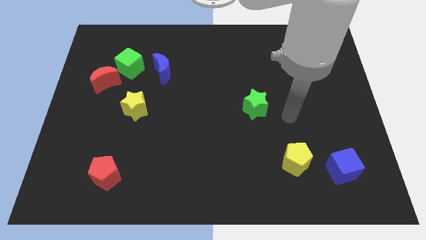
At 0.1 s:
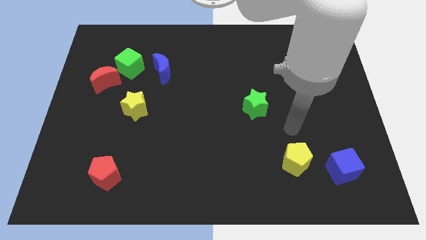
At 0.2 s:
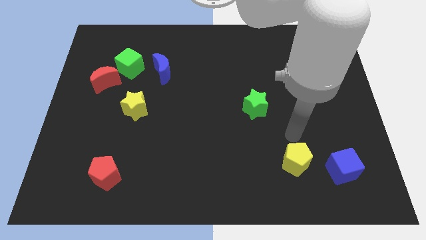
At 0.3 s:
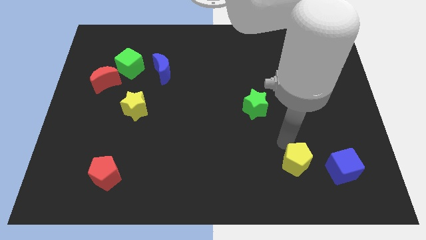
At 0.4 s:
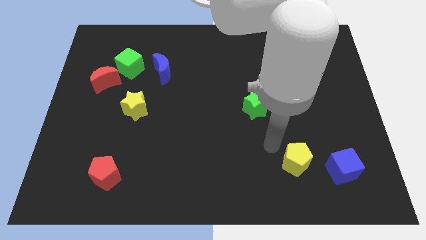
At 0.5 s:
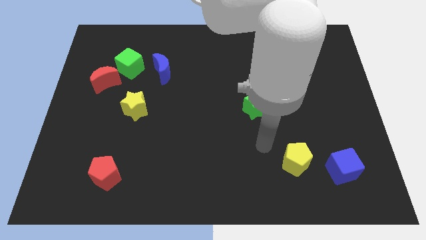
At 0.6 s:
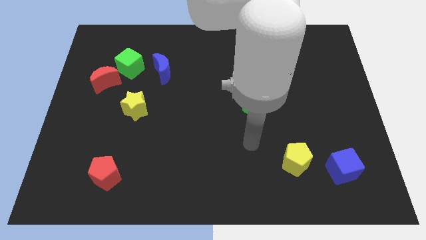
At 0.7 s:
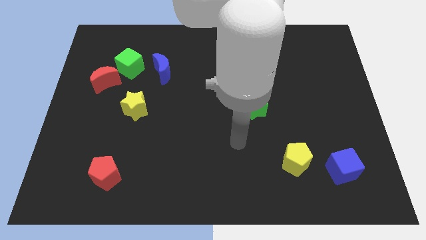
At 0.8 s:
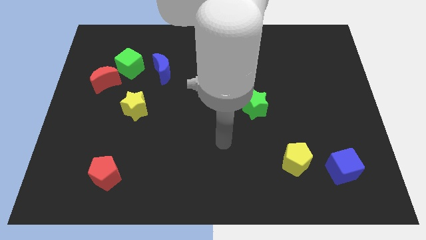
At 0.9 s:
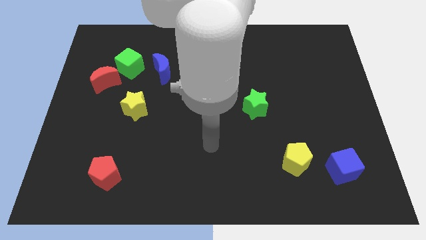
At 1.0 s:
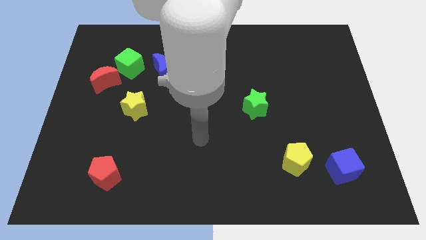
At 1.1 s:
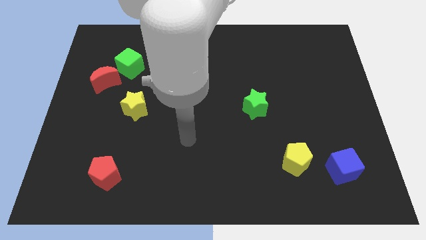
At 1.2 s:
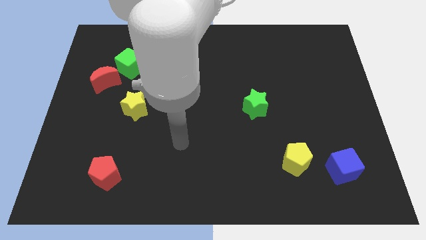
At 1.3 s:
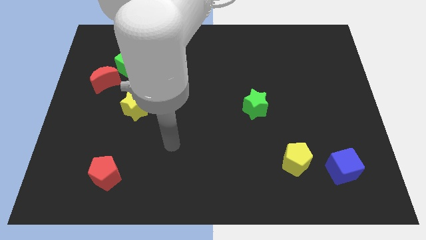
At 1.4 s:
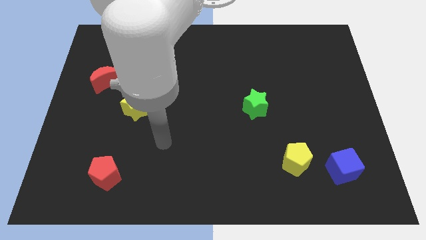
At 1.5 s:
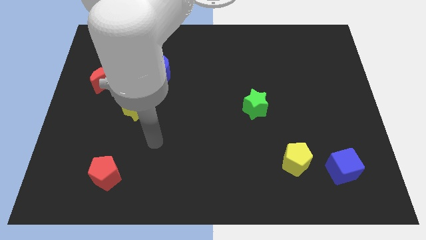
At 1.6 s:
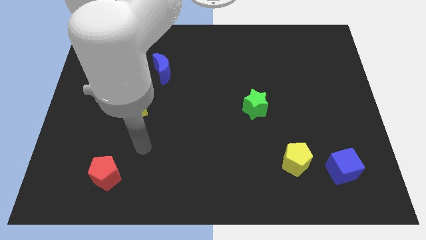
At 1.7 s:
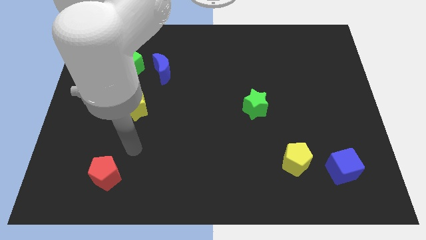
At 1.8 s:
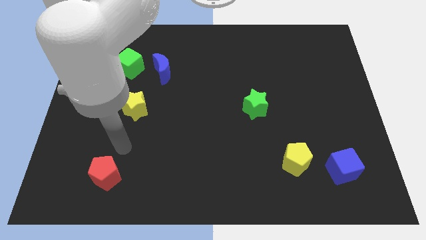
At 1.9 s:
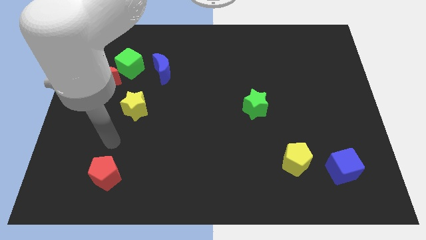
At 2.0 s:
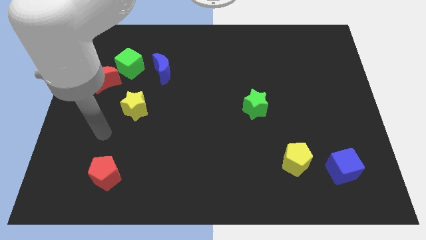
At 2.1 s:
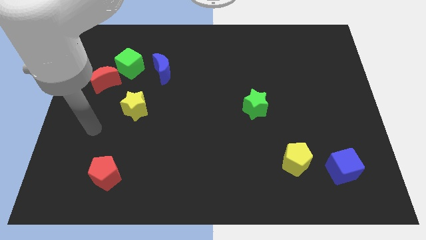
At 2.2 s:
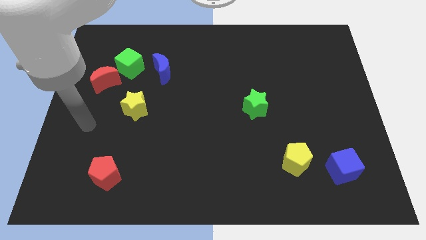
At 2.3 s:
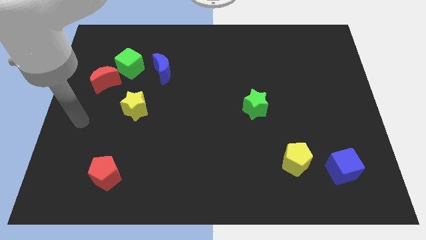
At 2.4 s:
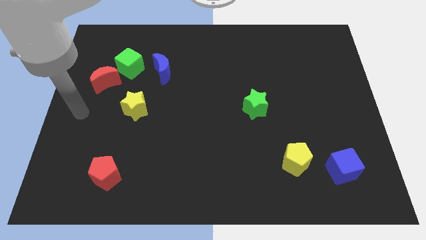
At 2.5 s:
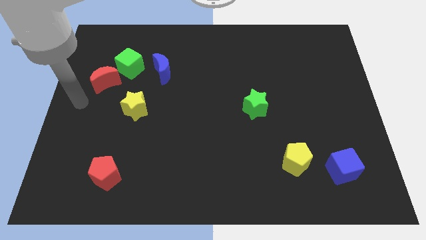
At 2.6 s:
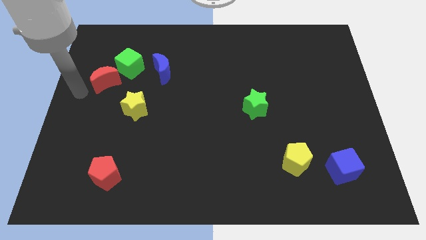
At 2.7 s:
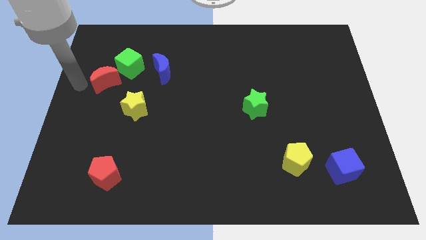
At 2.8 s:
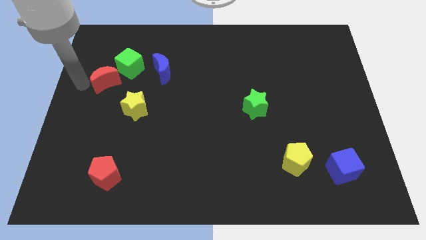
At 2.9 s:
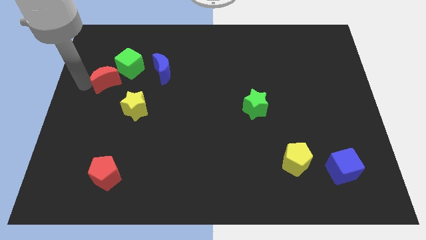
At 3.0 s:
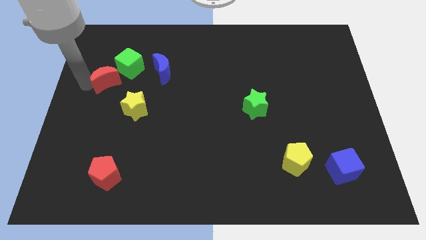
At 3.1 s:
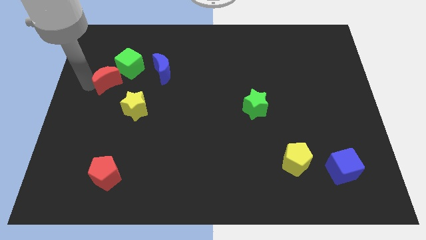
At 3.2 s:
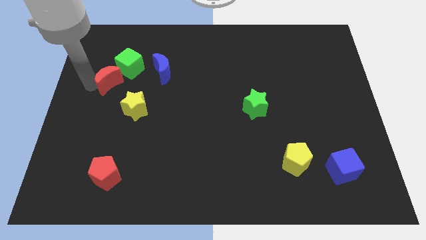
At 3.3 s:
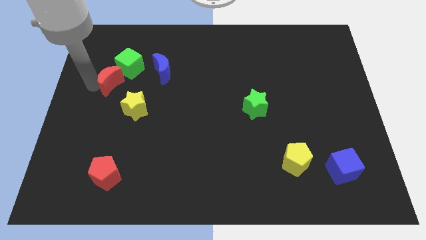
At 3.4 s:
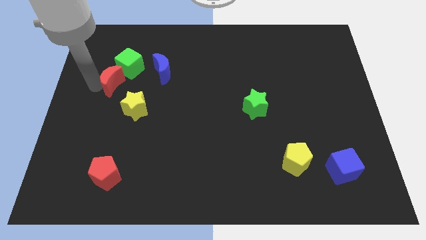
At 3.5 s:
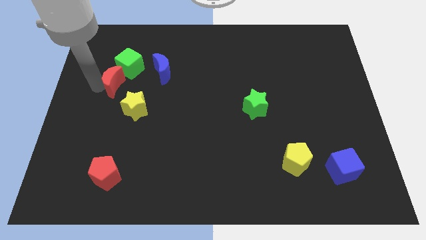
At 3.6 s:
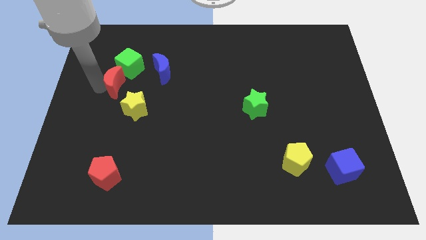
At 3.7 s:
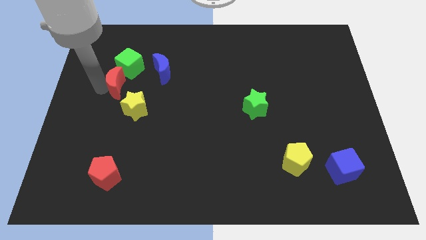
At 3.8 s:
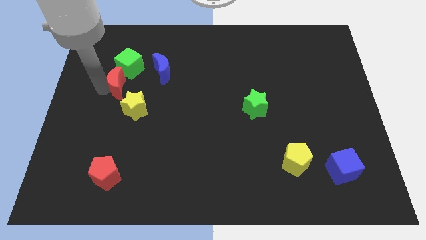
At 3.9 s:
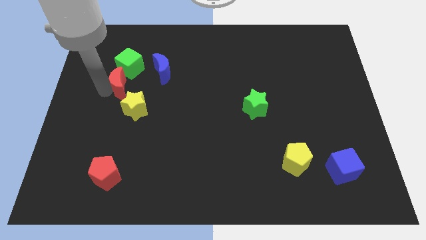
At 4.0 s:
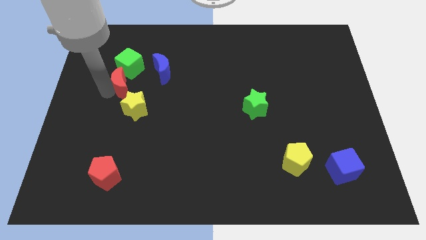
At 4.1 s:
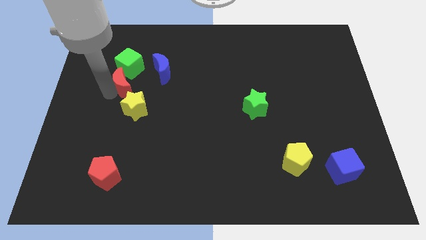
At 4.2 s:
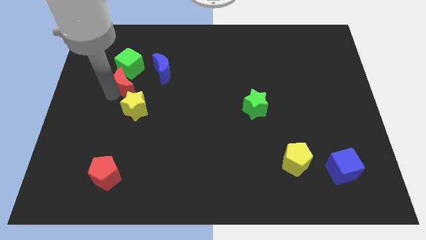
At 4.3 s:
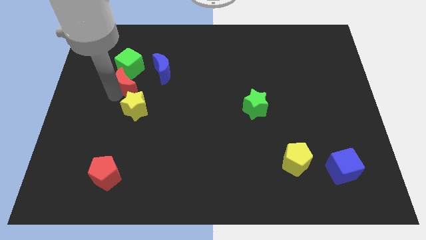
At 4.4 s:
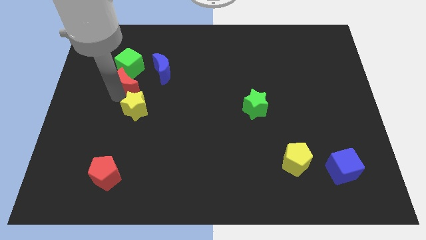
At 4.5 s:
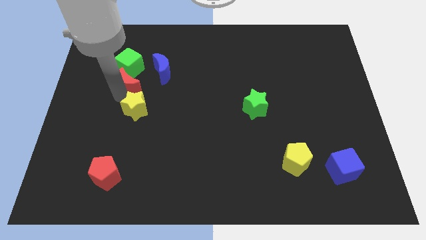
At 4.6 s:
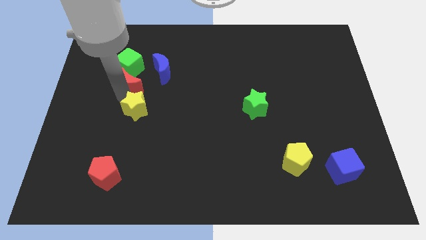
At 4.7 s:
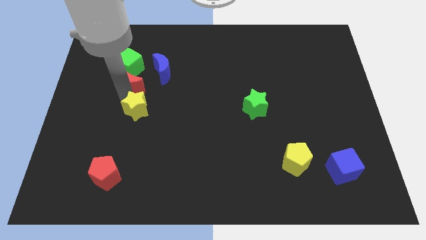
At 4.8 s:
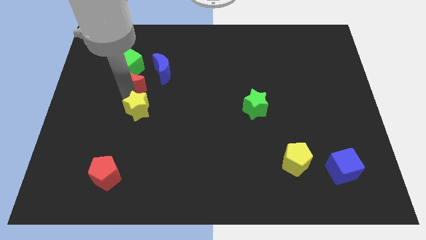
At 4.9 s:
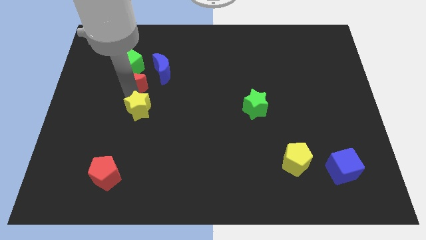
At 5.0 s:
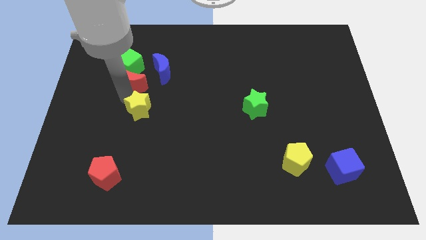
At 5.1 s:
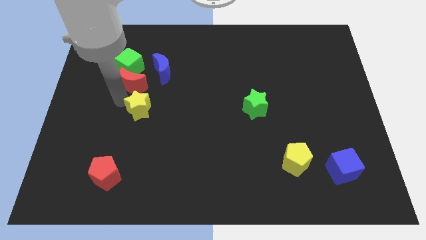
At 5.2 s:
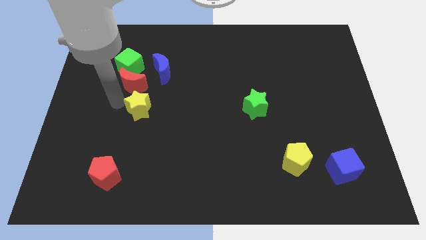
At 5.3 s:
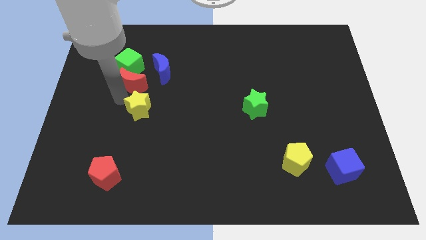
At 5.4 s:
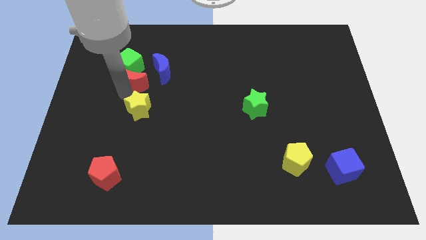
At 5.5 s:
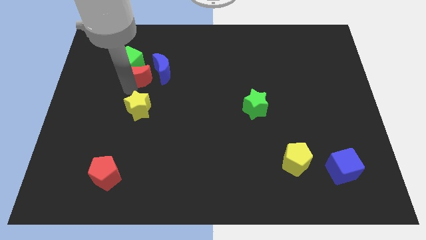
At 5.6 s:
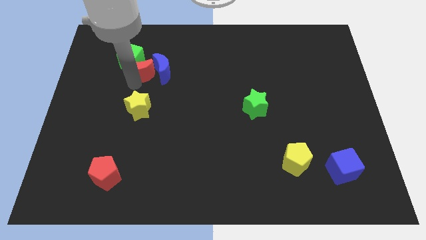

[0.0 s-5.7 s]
slide the red moon to the top left side of the blue moon

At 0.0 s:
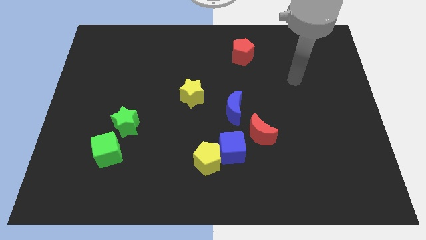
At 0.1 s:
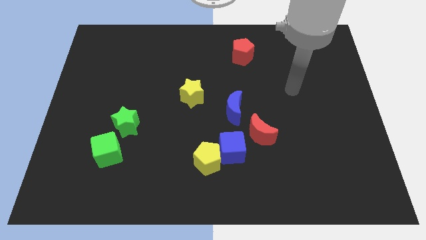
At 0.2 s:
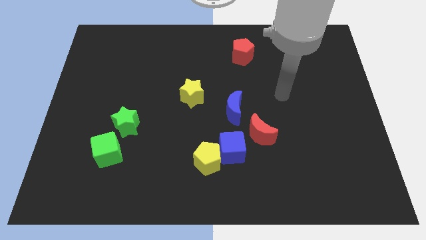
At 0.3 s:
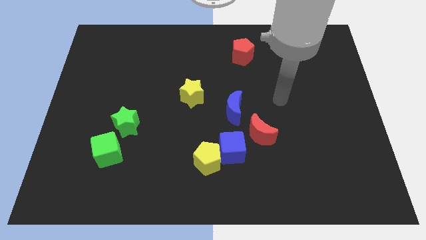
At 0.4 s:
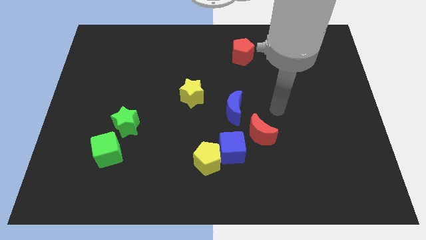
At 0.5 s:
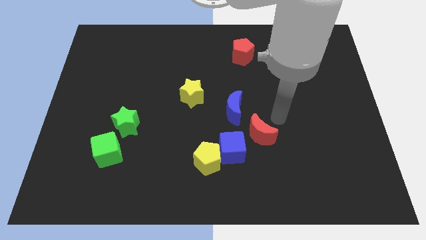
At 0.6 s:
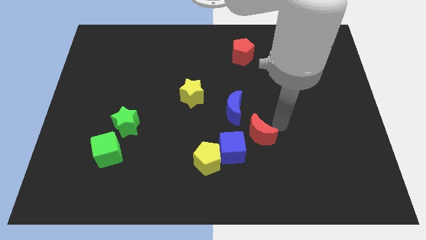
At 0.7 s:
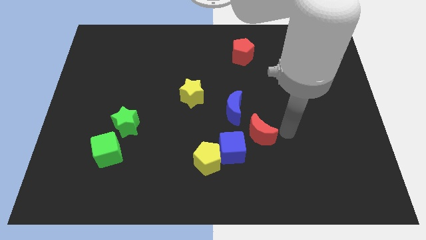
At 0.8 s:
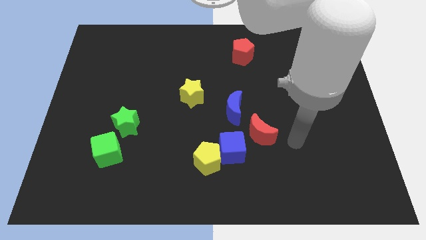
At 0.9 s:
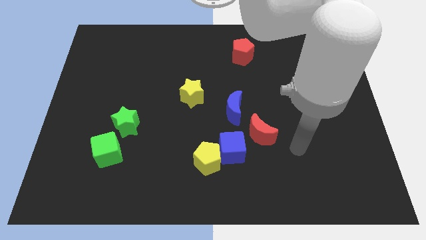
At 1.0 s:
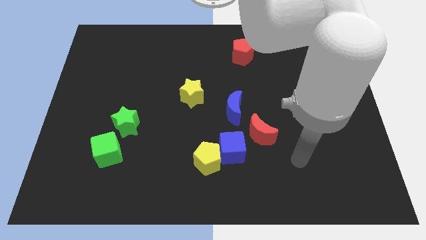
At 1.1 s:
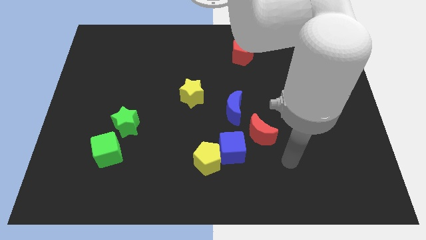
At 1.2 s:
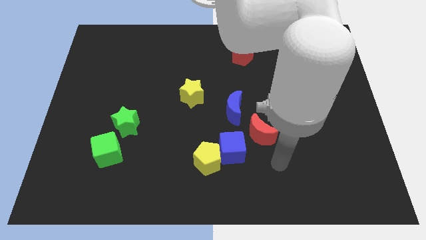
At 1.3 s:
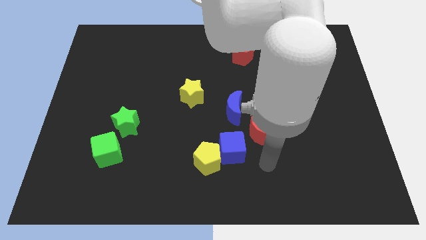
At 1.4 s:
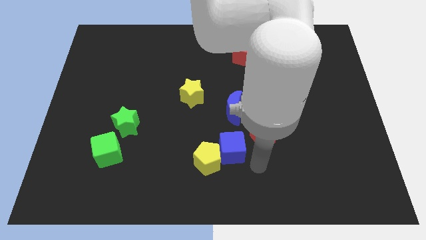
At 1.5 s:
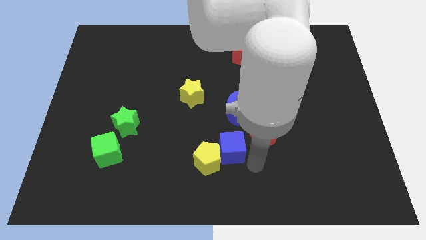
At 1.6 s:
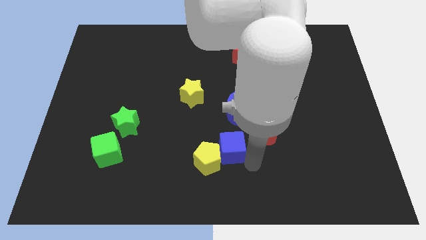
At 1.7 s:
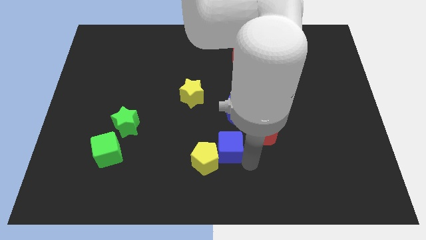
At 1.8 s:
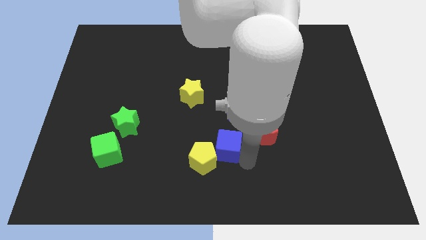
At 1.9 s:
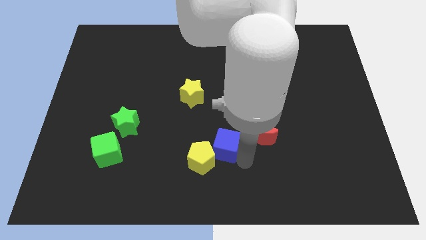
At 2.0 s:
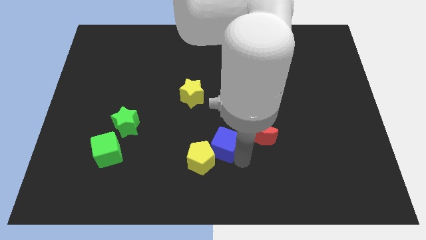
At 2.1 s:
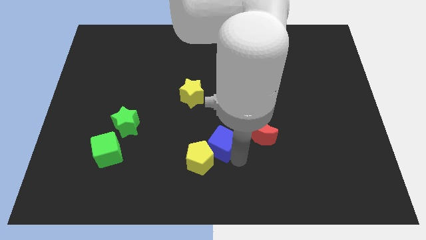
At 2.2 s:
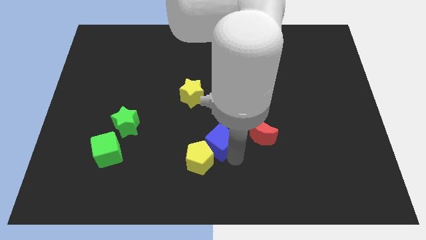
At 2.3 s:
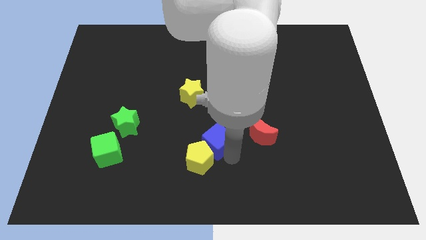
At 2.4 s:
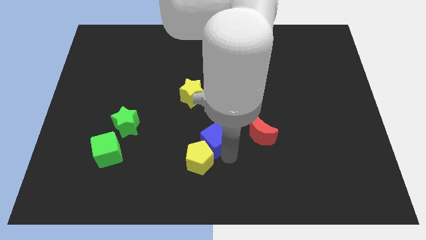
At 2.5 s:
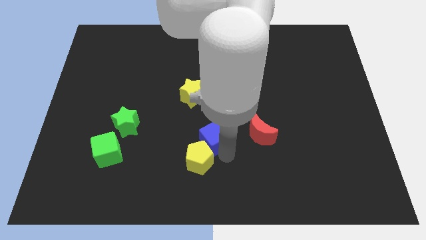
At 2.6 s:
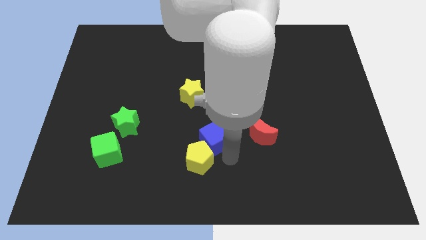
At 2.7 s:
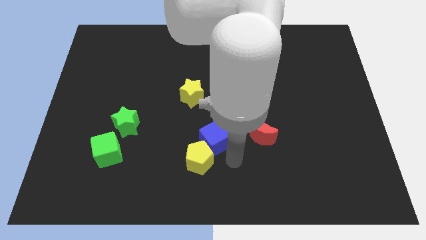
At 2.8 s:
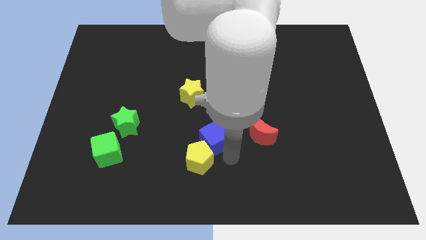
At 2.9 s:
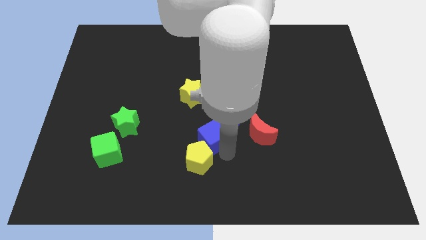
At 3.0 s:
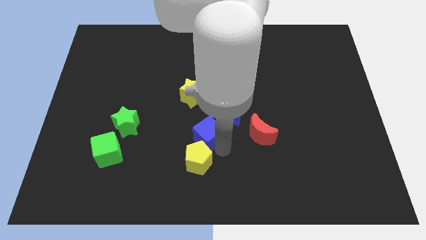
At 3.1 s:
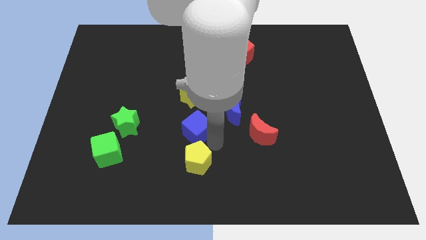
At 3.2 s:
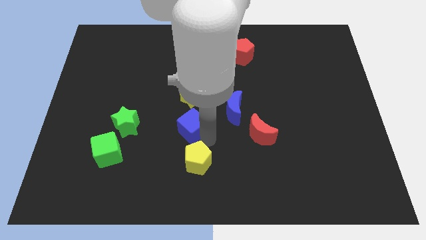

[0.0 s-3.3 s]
push the blue cube left of the blue moon
